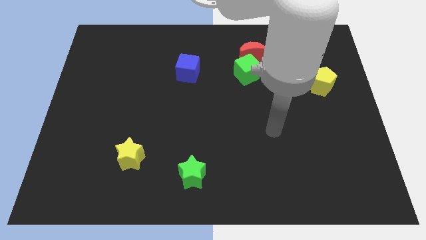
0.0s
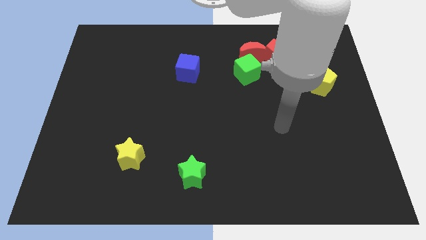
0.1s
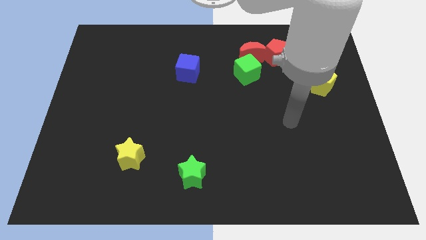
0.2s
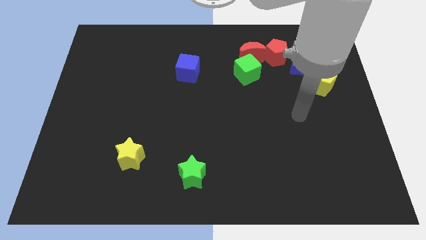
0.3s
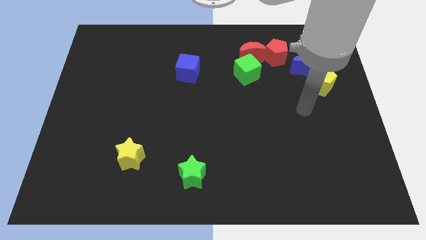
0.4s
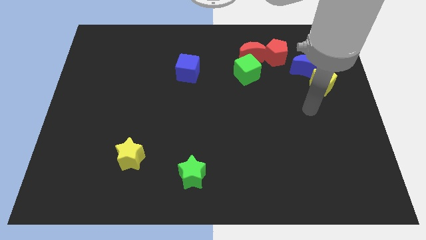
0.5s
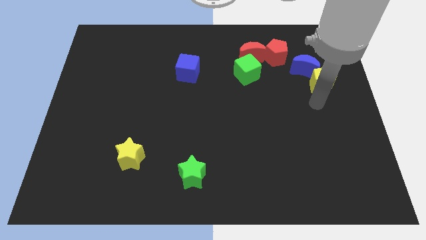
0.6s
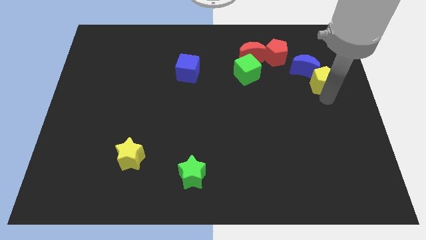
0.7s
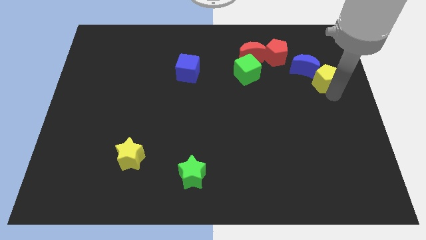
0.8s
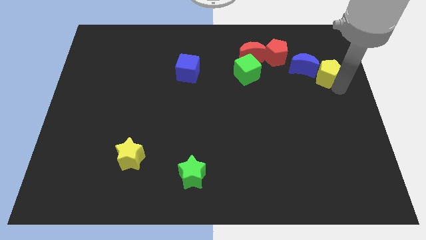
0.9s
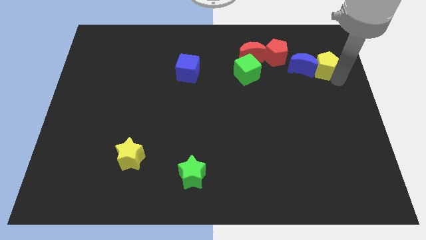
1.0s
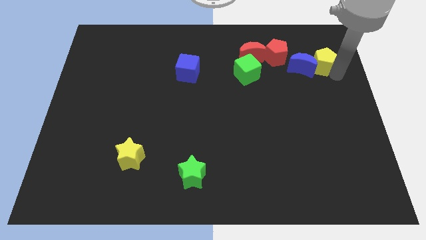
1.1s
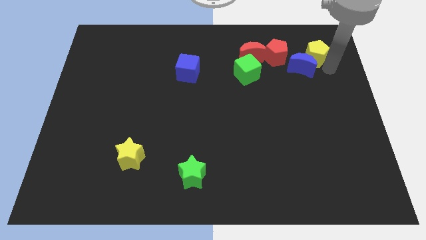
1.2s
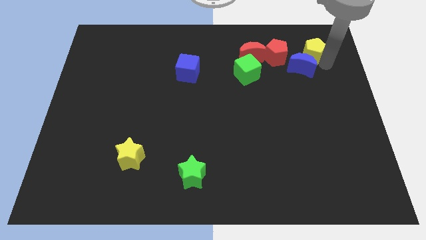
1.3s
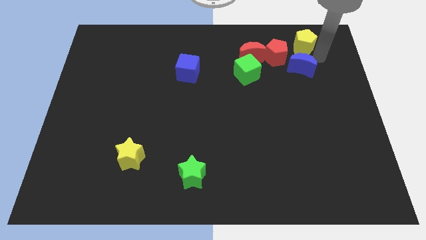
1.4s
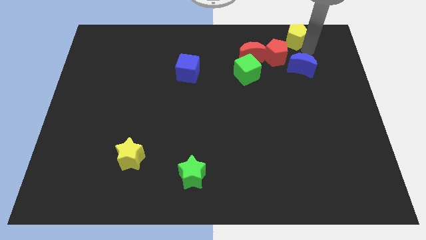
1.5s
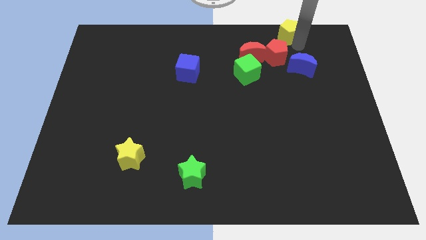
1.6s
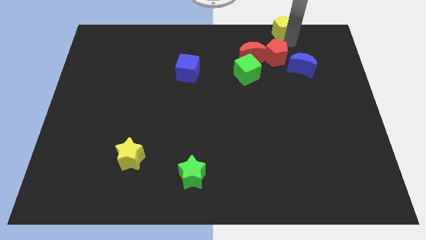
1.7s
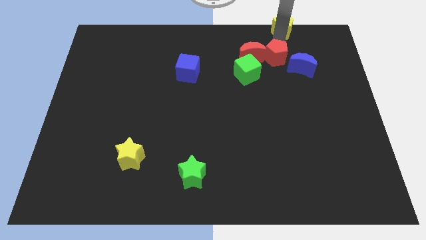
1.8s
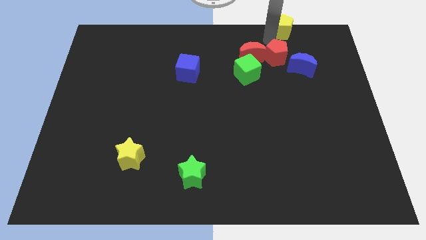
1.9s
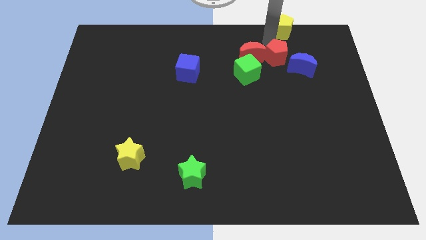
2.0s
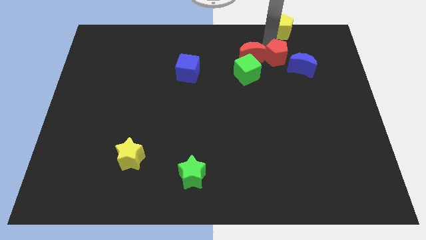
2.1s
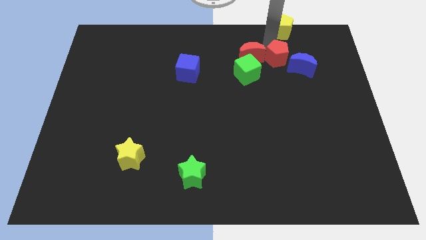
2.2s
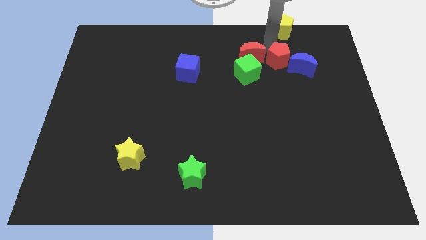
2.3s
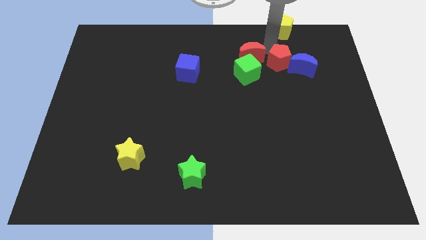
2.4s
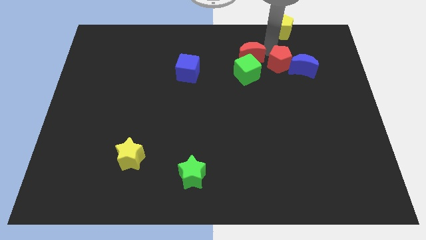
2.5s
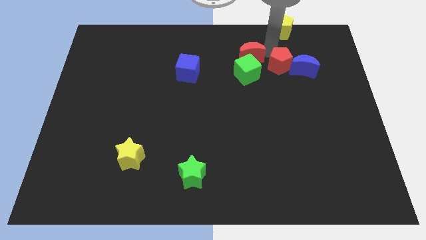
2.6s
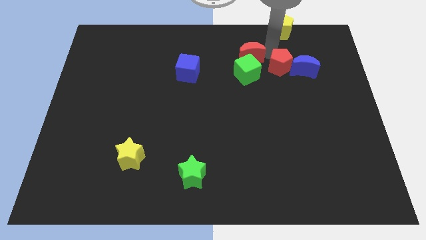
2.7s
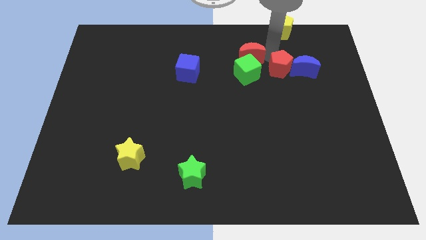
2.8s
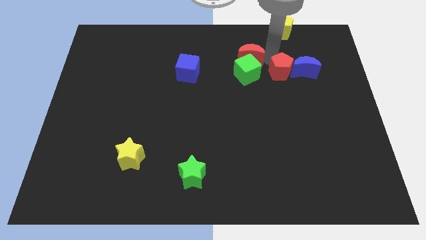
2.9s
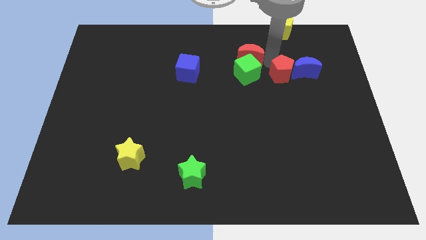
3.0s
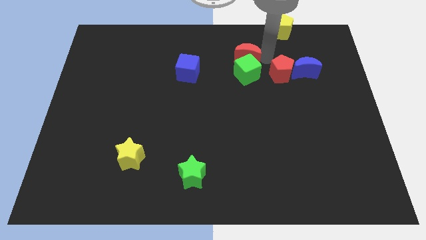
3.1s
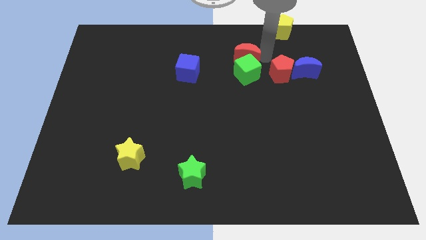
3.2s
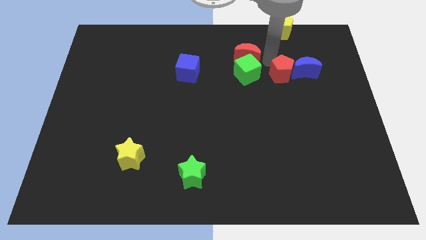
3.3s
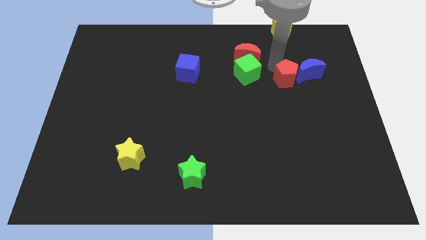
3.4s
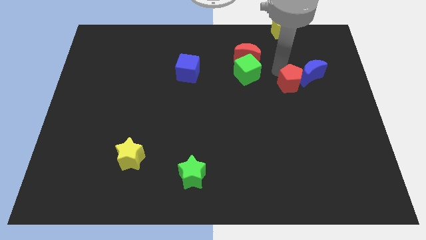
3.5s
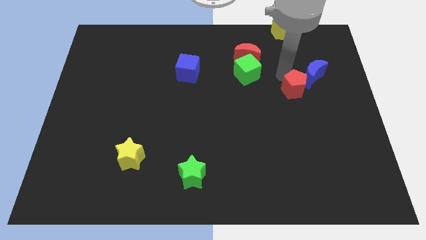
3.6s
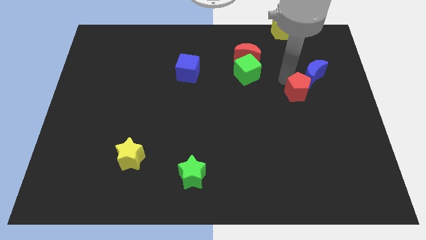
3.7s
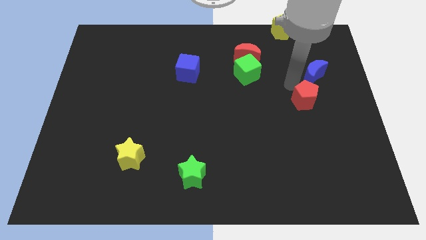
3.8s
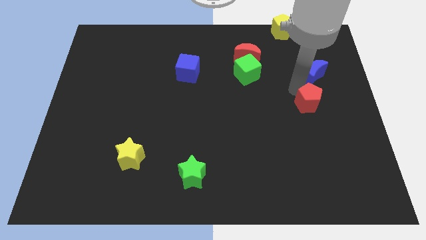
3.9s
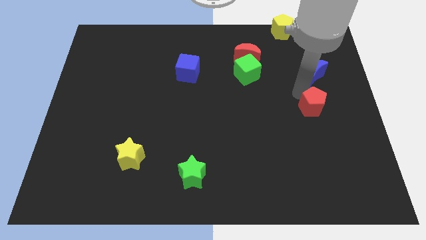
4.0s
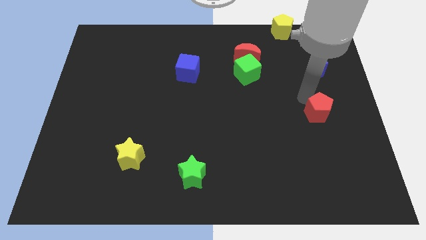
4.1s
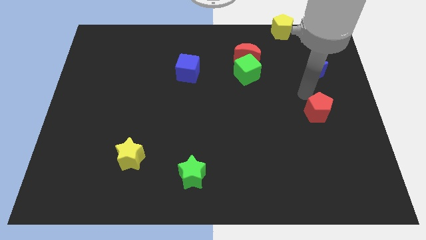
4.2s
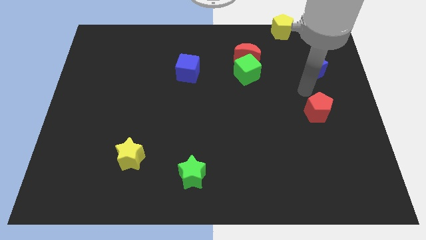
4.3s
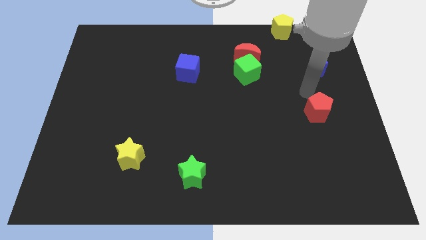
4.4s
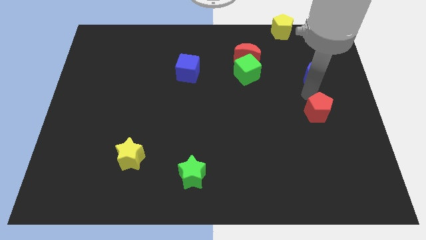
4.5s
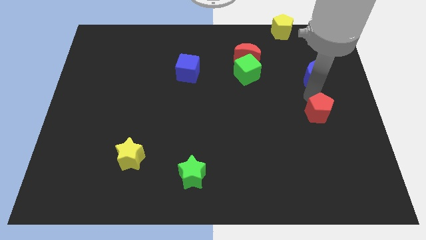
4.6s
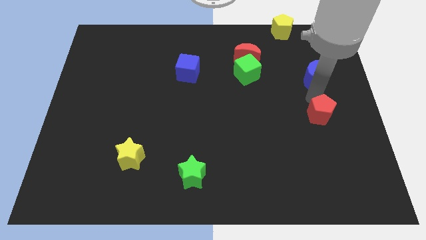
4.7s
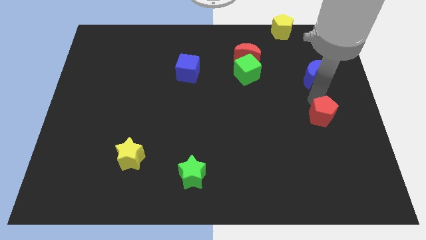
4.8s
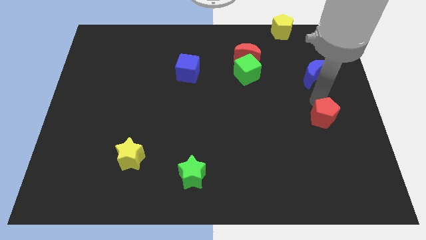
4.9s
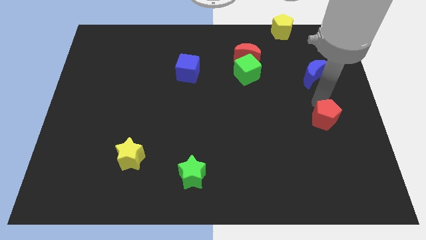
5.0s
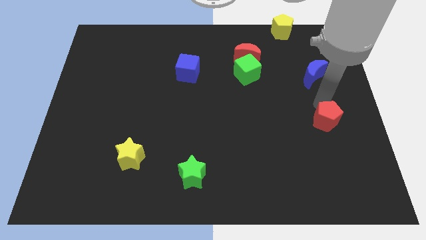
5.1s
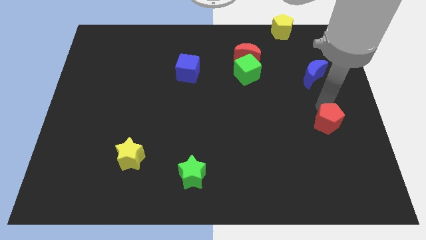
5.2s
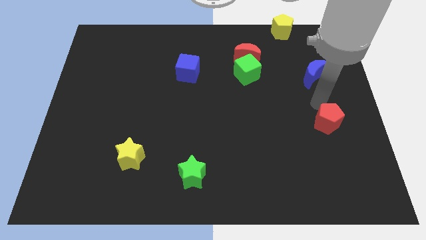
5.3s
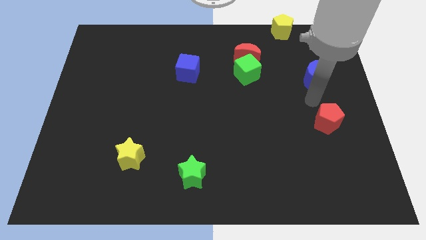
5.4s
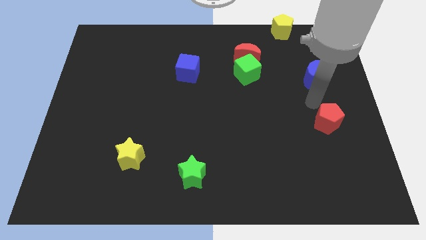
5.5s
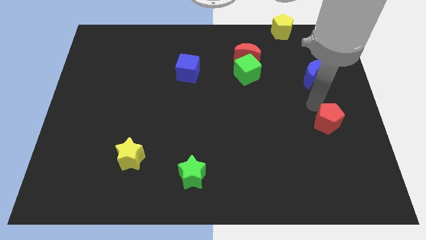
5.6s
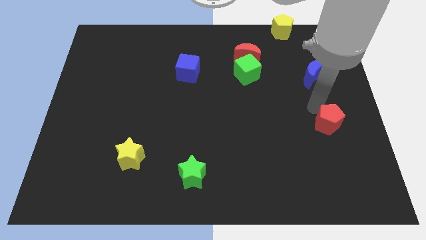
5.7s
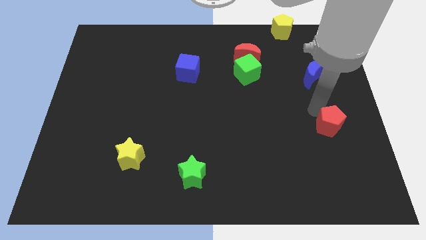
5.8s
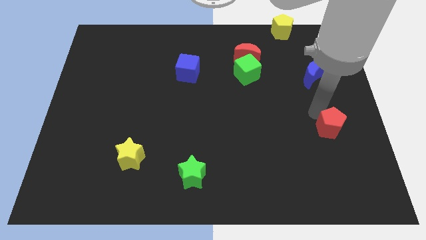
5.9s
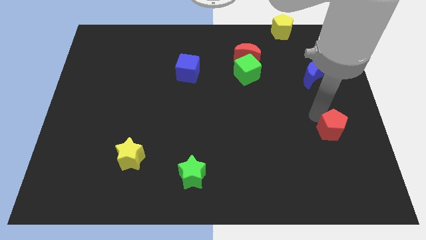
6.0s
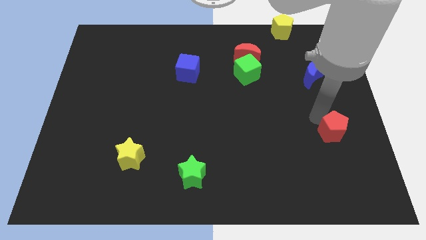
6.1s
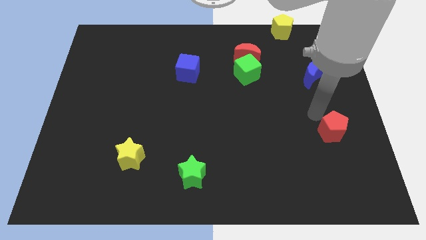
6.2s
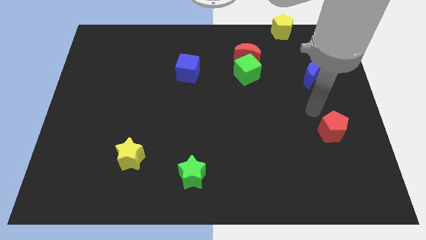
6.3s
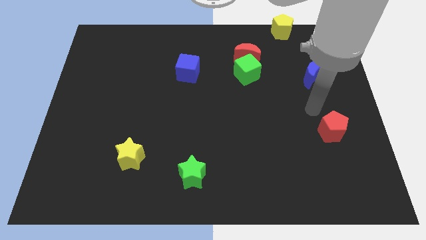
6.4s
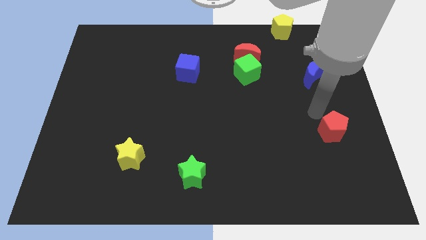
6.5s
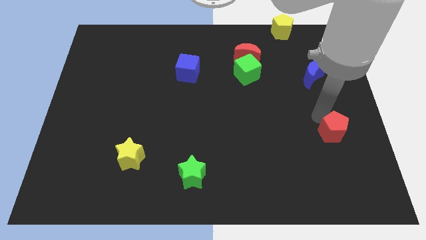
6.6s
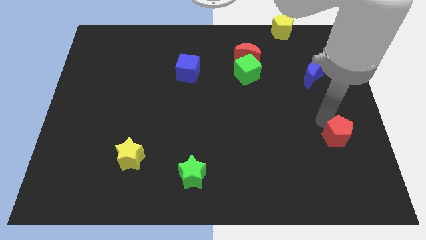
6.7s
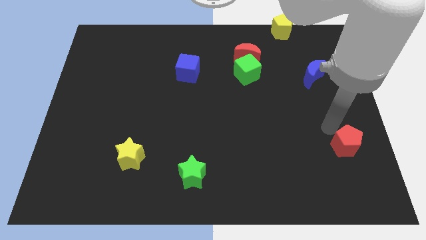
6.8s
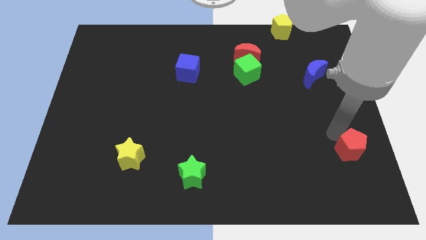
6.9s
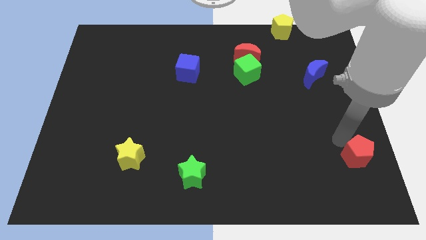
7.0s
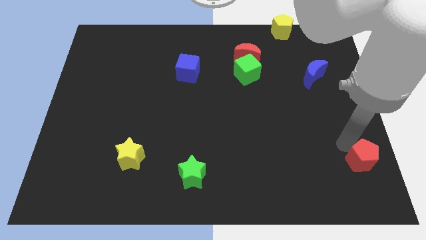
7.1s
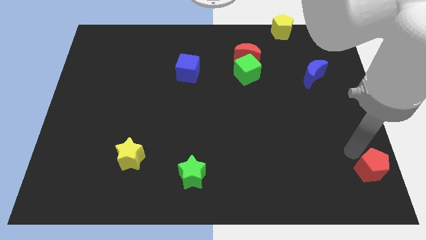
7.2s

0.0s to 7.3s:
move the red pentagon to the bottom right
